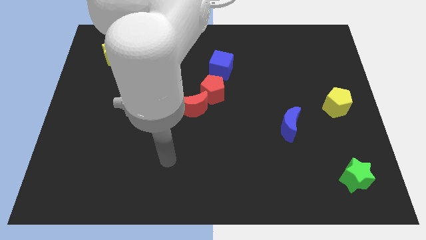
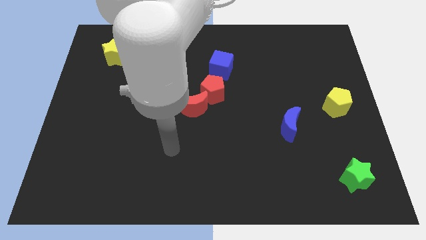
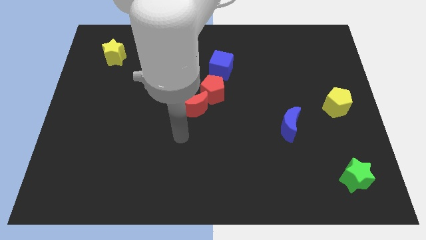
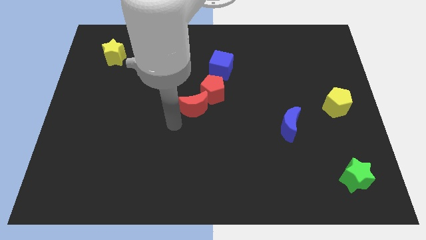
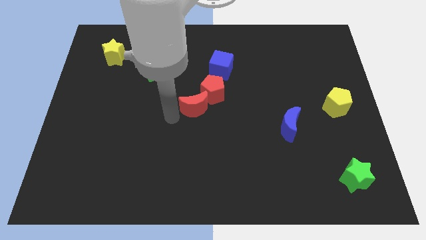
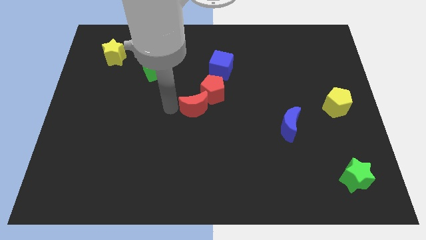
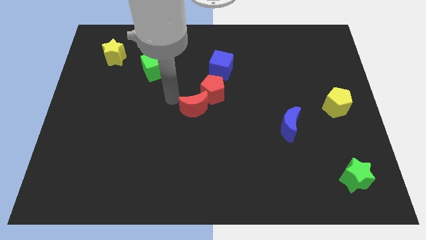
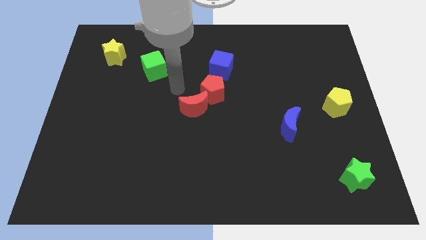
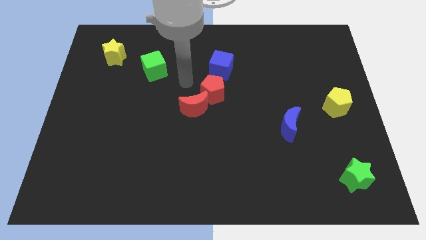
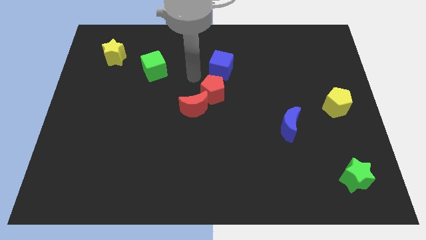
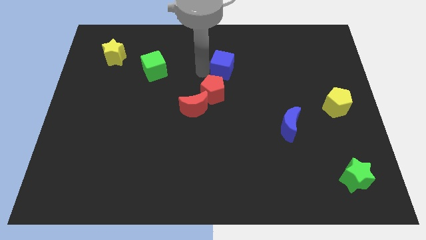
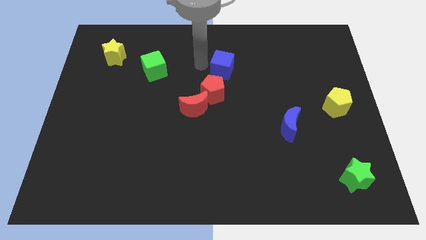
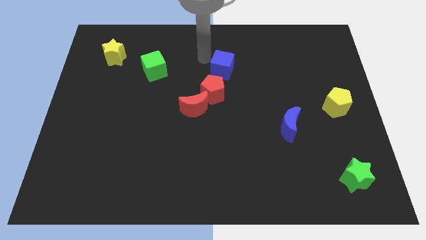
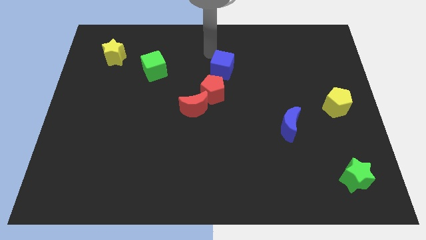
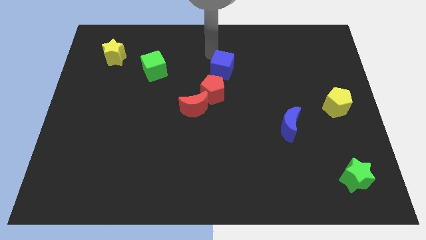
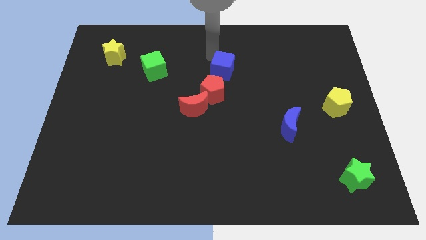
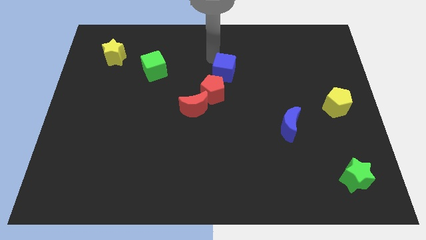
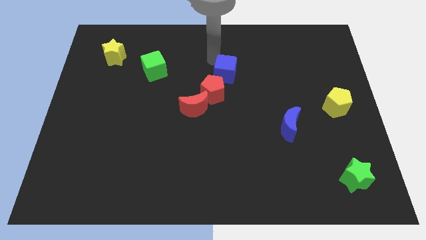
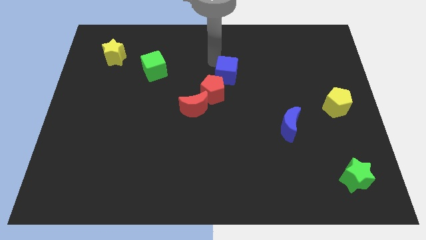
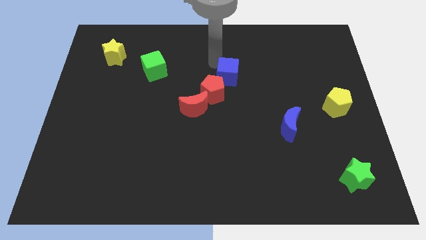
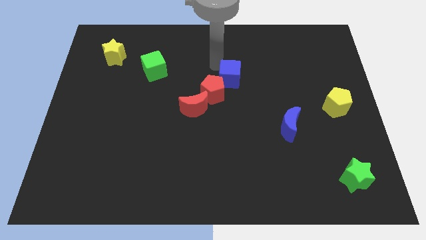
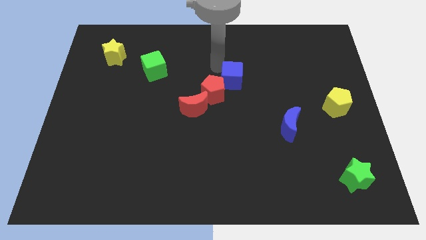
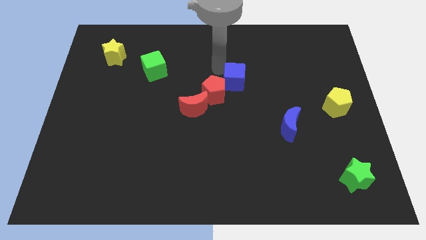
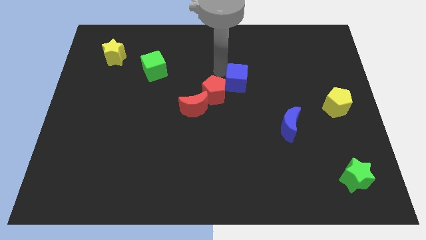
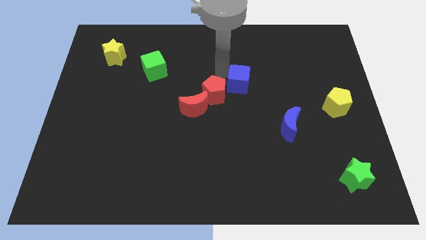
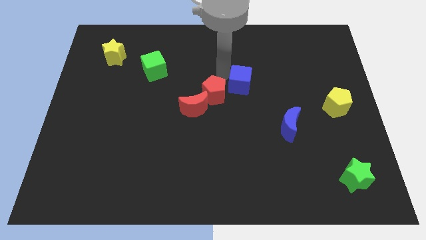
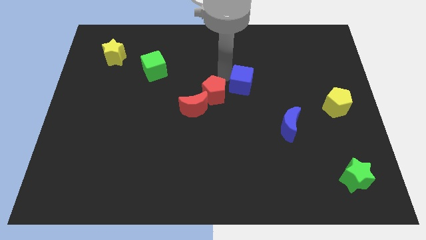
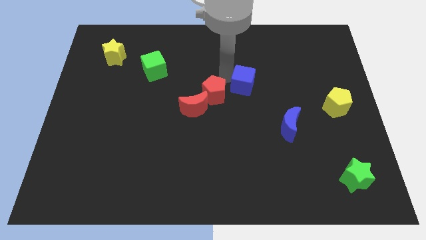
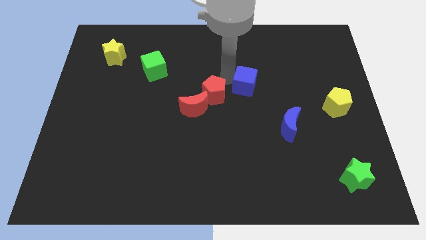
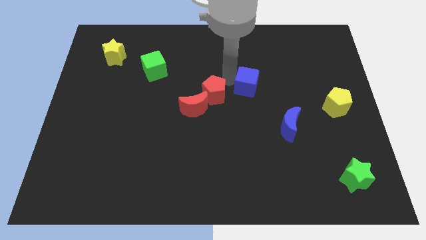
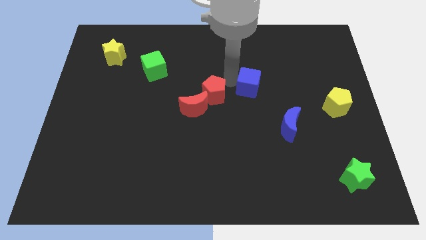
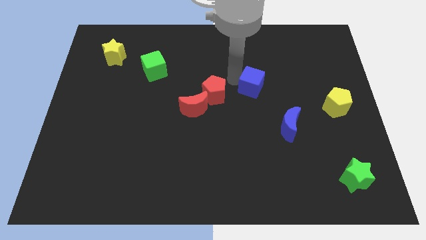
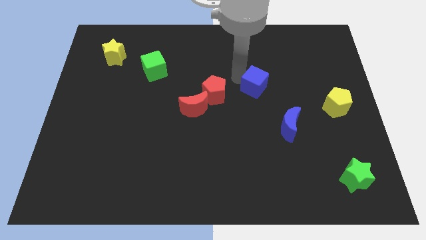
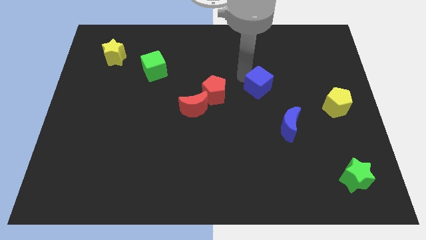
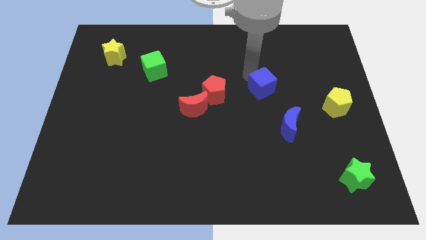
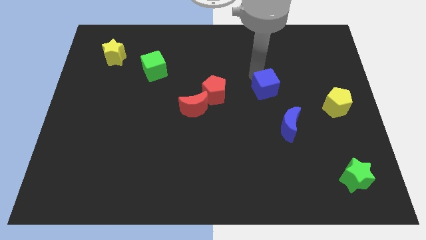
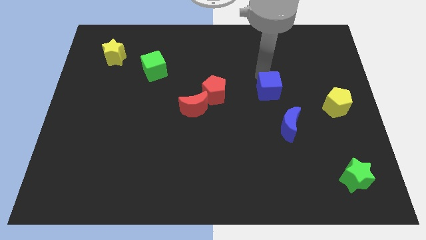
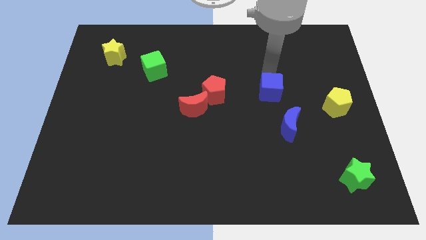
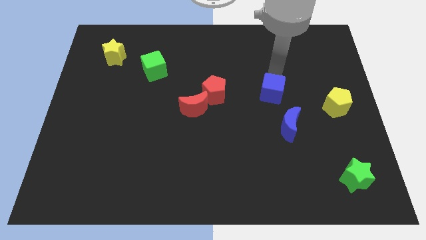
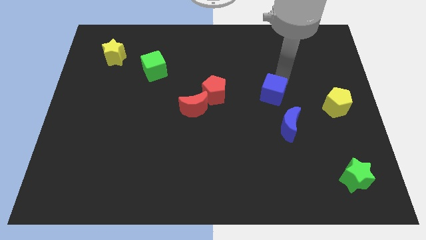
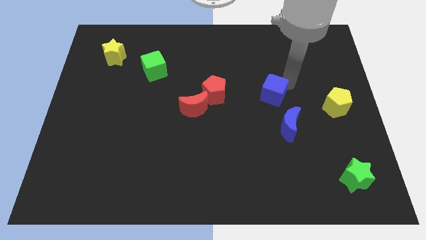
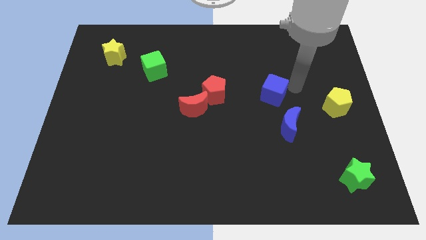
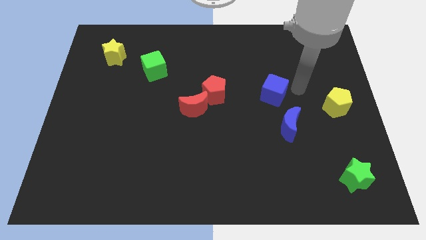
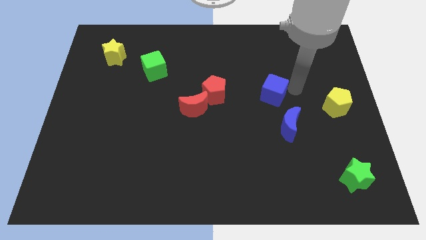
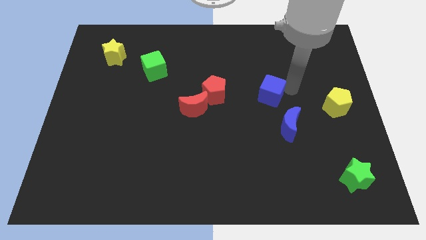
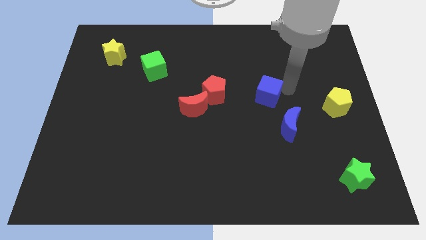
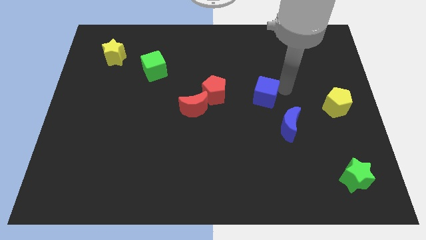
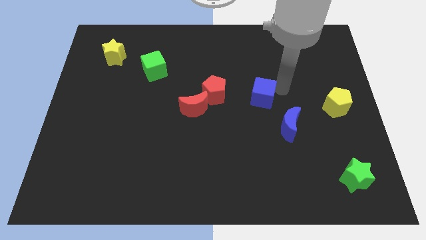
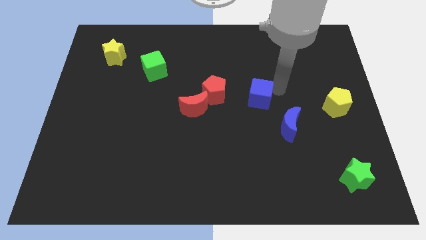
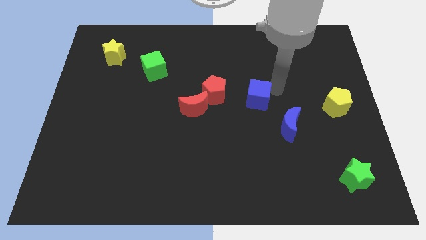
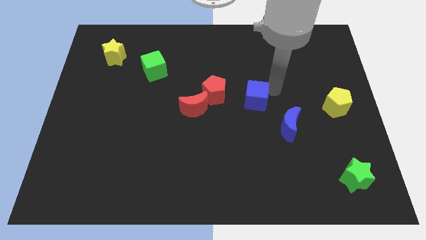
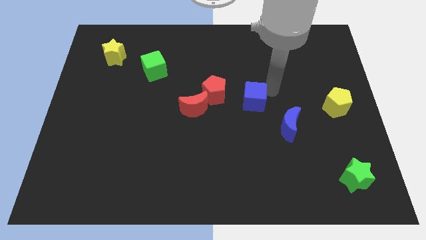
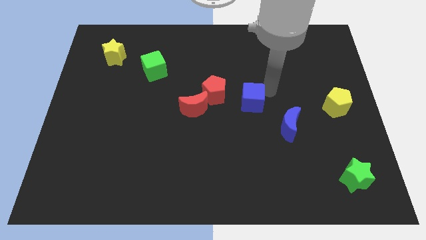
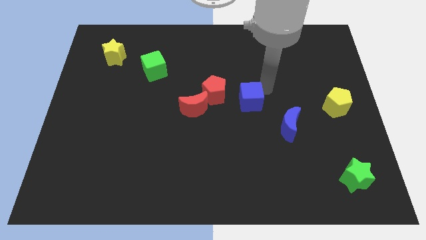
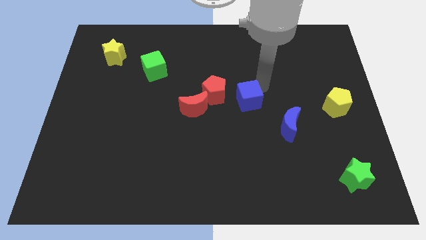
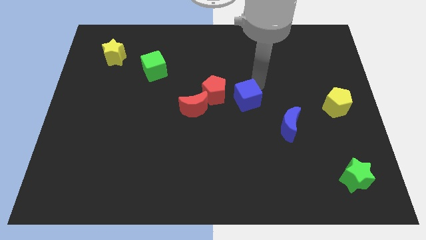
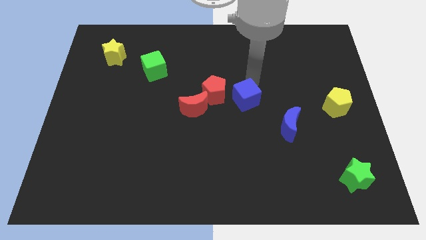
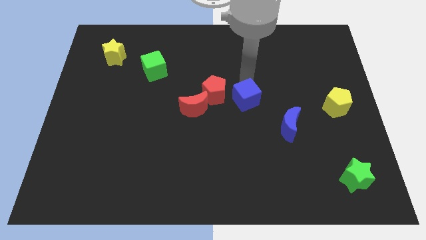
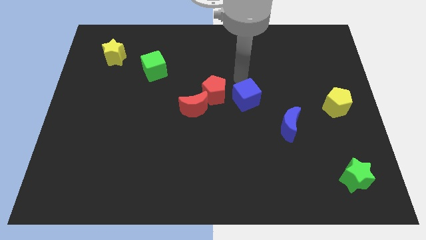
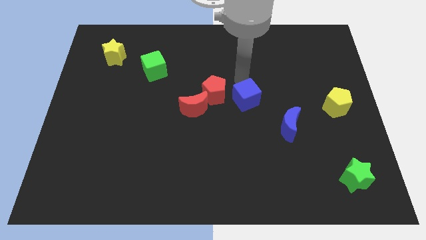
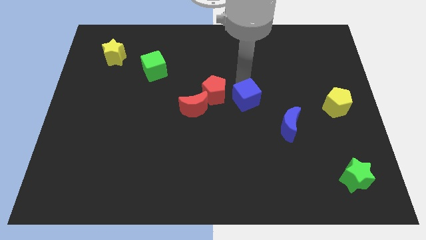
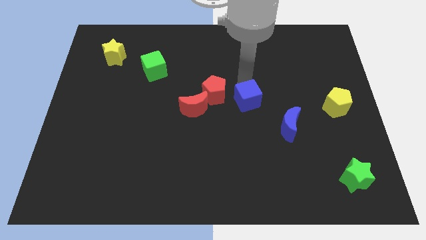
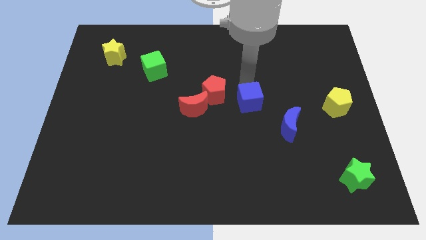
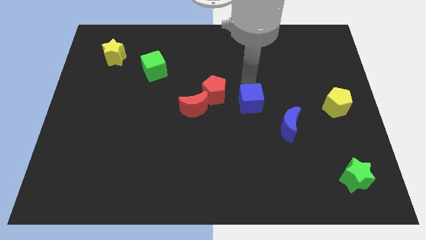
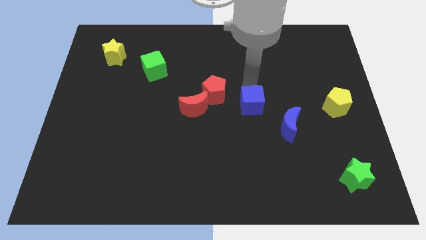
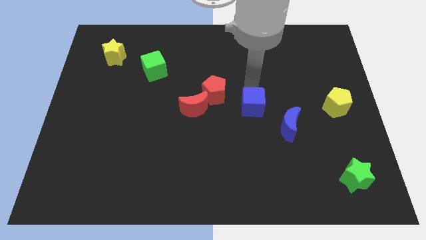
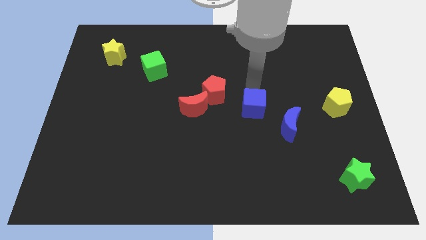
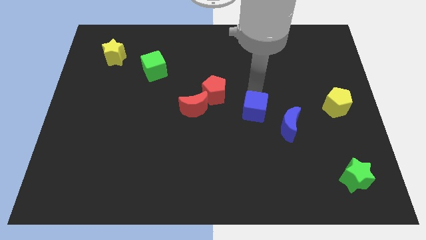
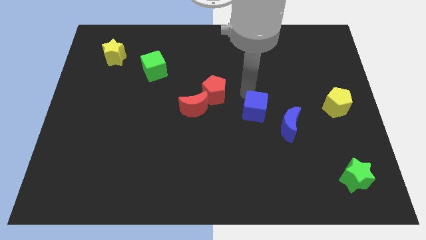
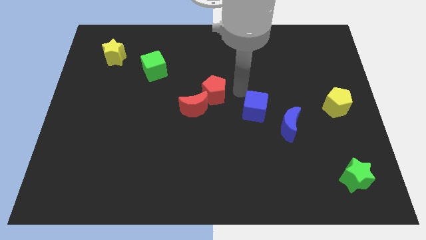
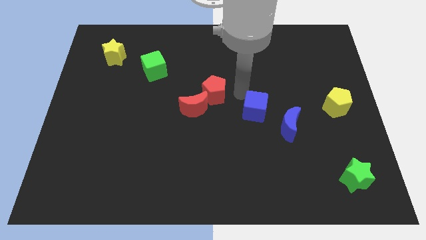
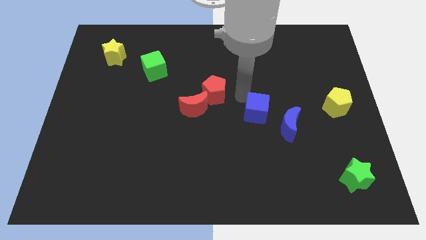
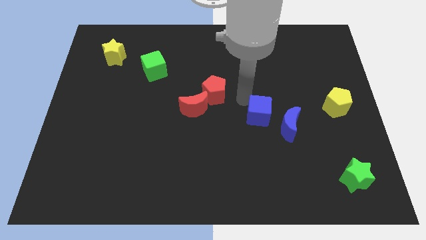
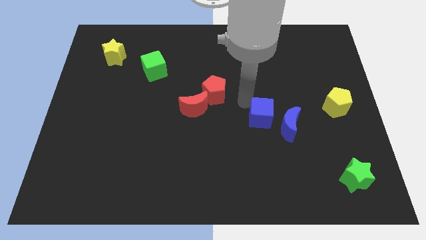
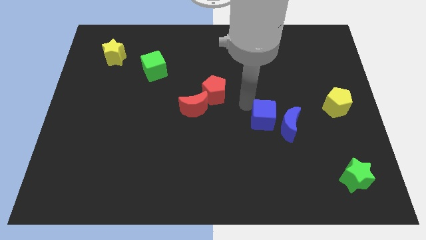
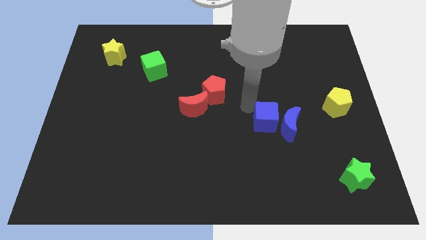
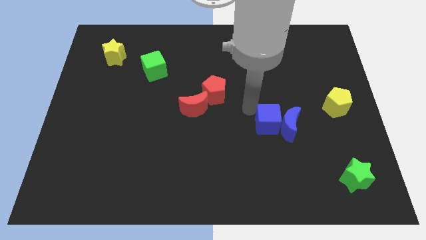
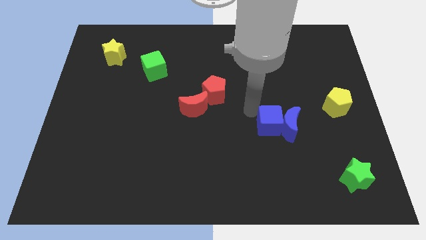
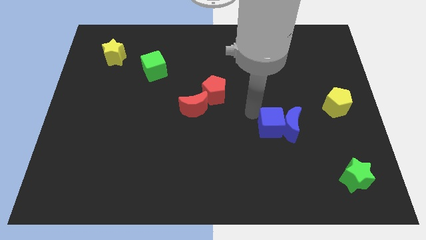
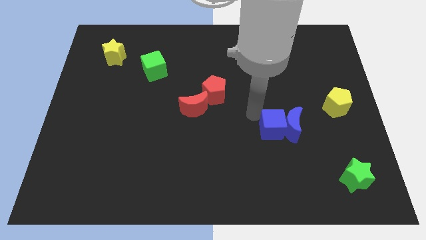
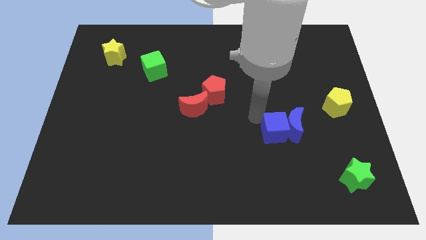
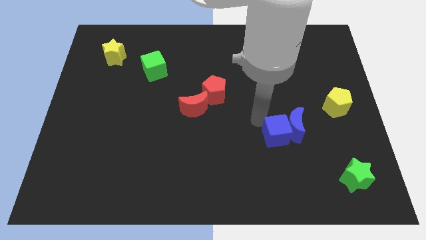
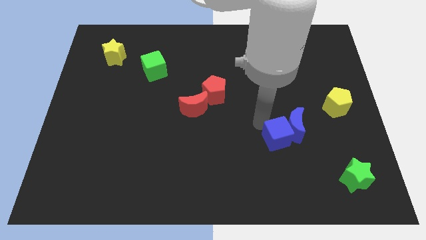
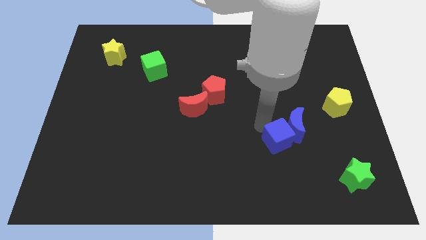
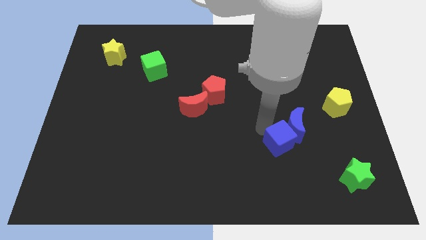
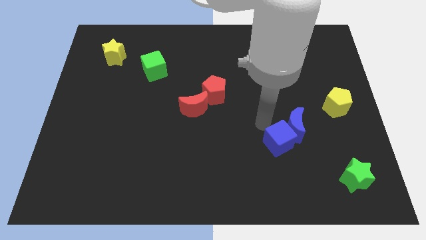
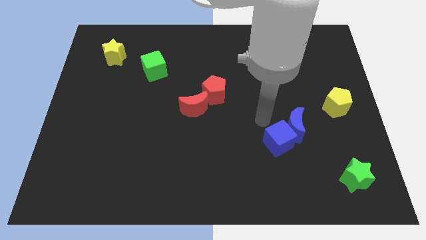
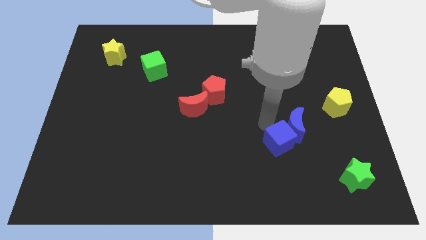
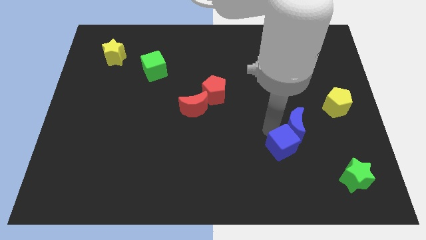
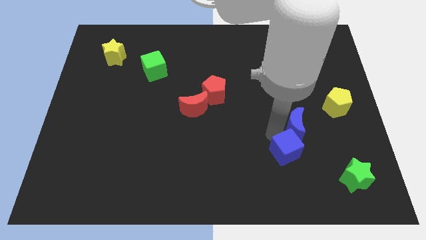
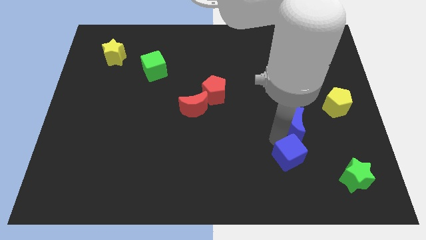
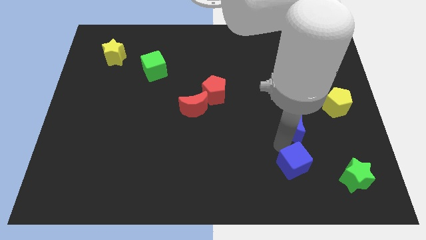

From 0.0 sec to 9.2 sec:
push the blue cube left of the green star
